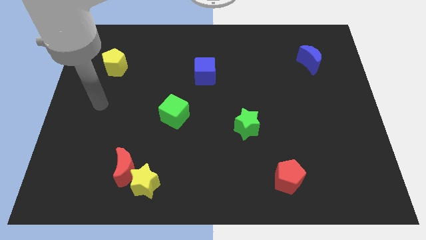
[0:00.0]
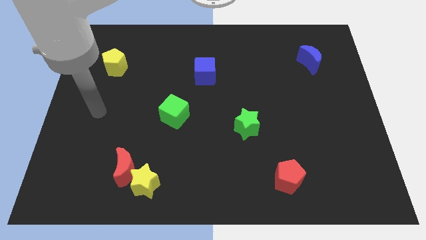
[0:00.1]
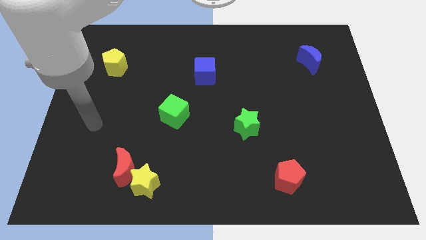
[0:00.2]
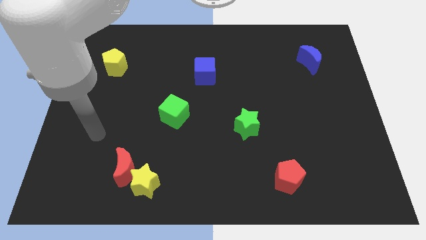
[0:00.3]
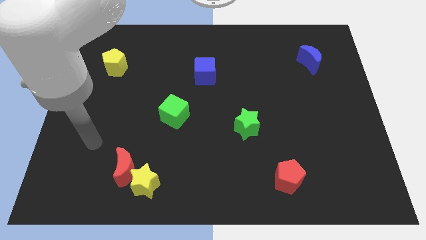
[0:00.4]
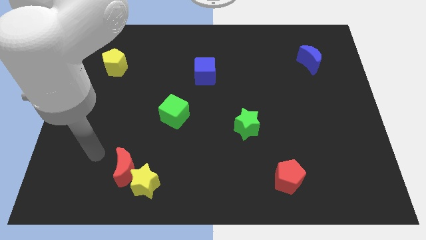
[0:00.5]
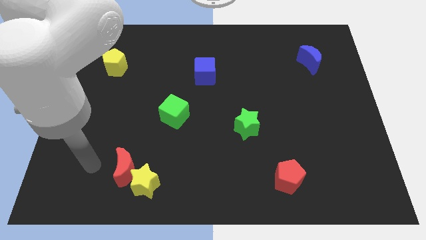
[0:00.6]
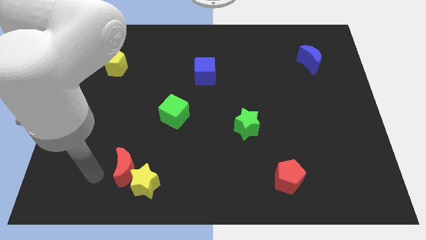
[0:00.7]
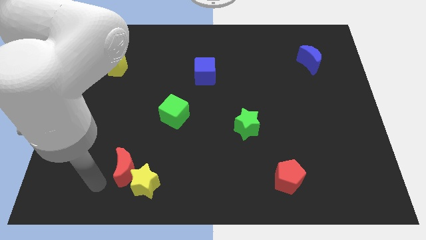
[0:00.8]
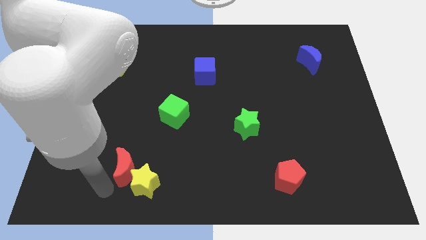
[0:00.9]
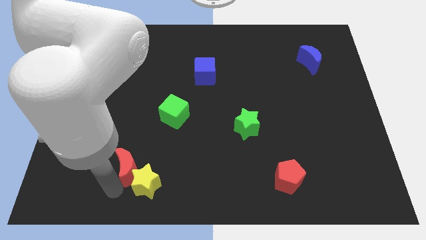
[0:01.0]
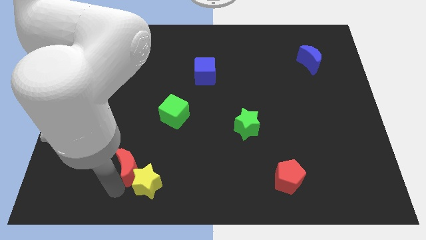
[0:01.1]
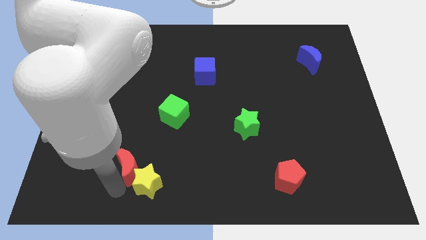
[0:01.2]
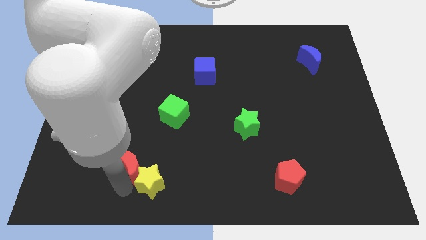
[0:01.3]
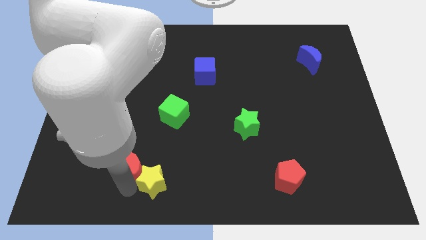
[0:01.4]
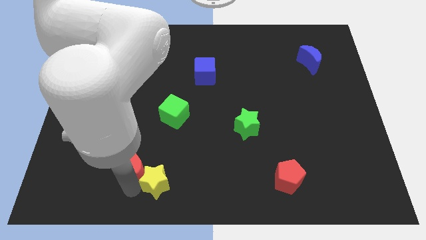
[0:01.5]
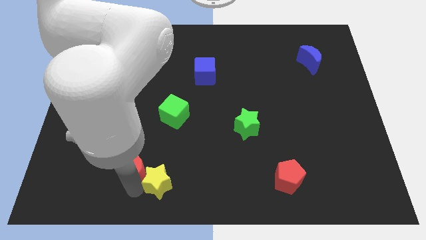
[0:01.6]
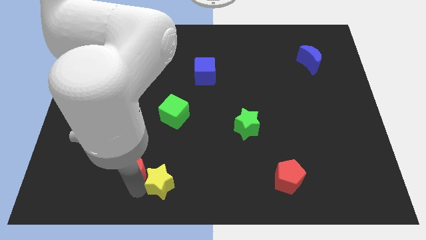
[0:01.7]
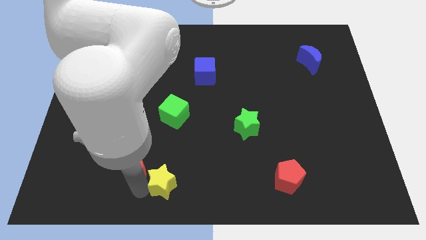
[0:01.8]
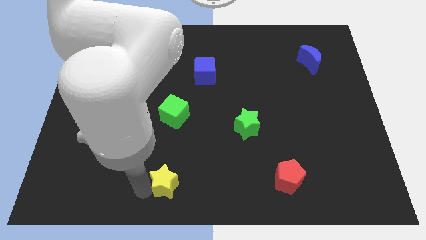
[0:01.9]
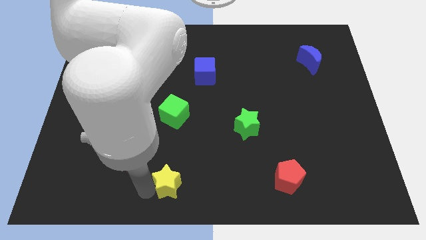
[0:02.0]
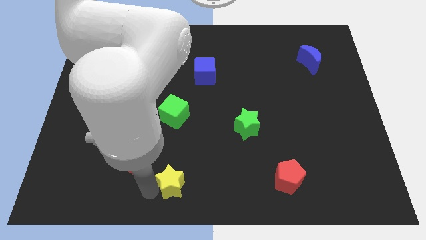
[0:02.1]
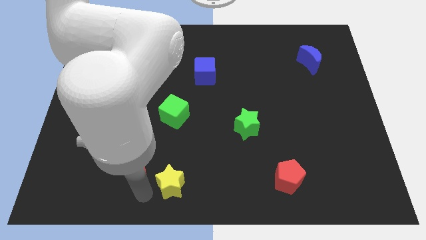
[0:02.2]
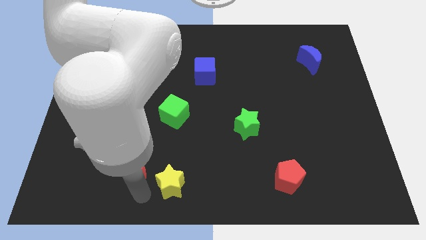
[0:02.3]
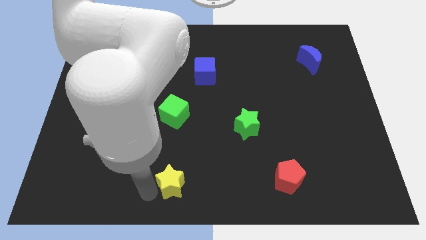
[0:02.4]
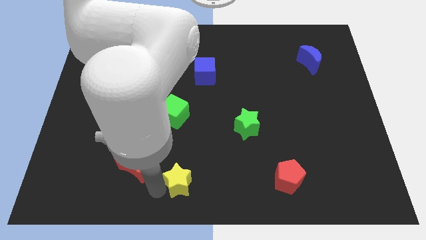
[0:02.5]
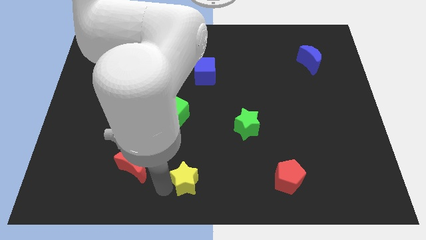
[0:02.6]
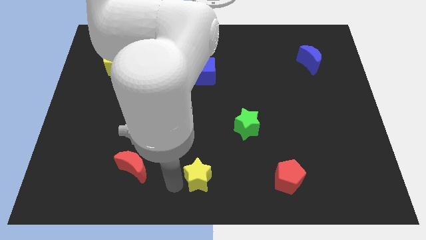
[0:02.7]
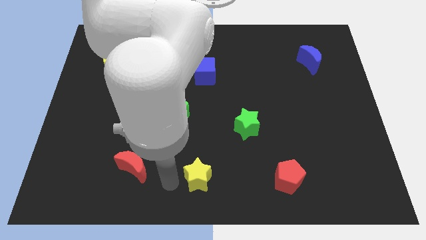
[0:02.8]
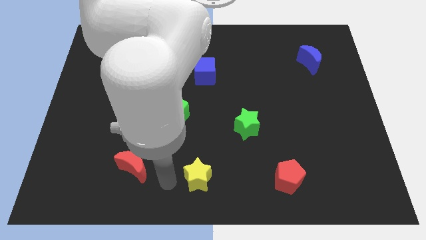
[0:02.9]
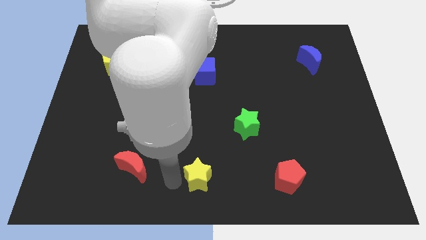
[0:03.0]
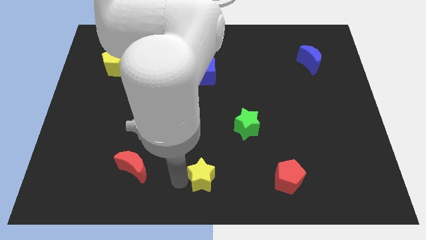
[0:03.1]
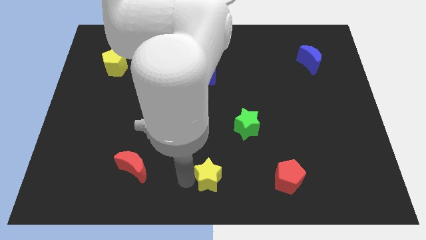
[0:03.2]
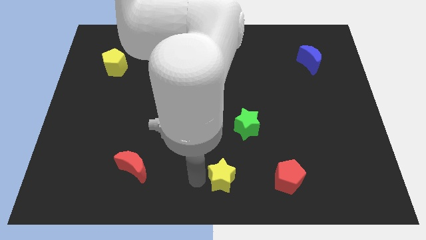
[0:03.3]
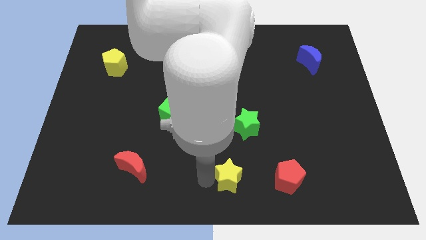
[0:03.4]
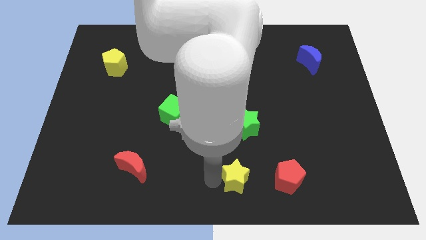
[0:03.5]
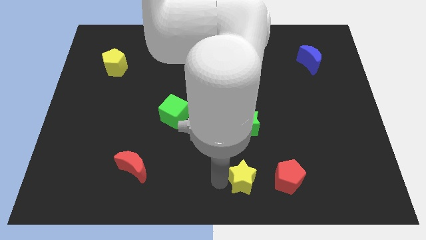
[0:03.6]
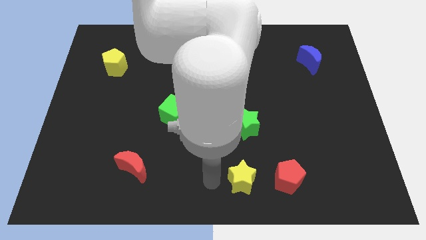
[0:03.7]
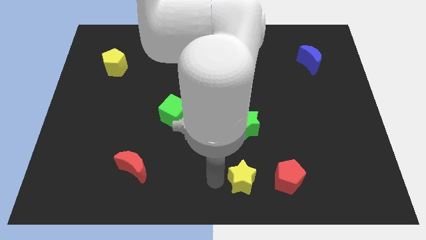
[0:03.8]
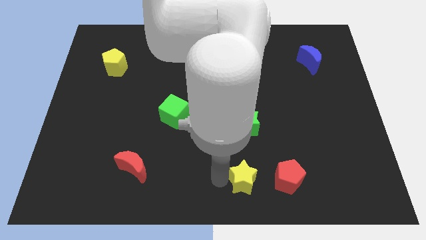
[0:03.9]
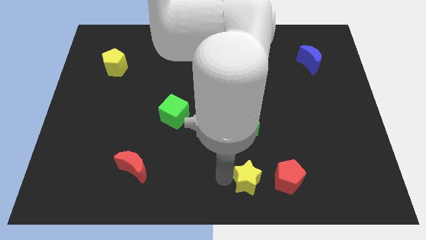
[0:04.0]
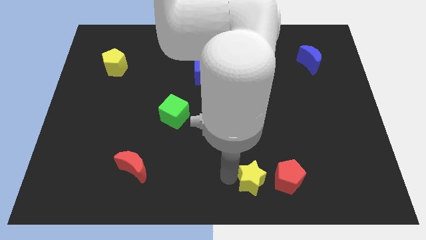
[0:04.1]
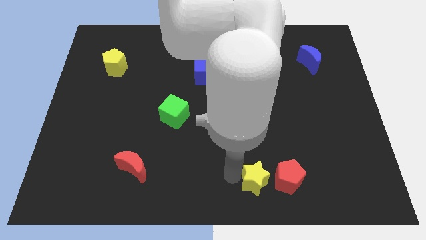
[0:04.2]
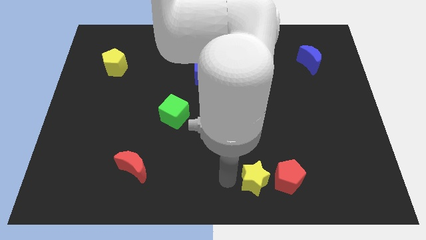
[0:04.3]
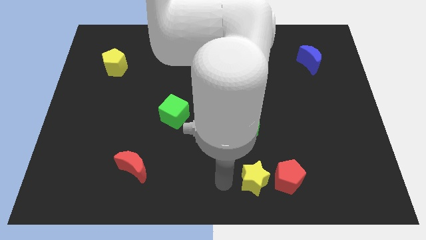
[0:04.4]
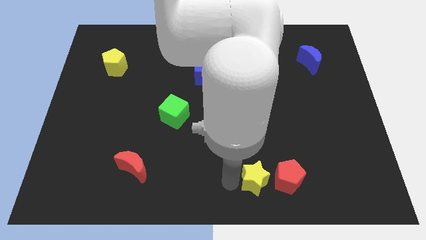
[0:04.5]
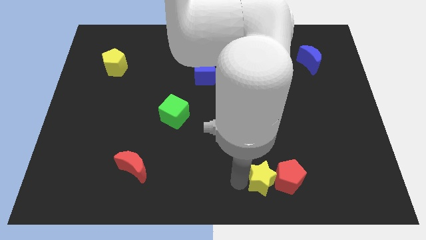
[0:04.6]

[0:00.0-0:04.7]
move the yellow star close to the red pentagon

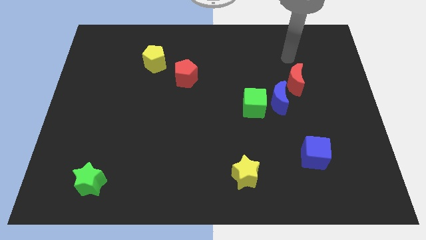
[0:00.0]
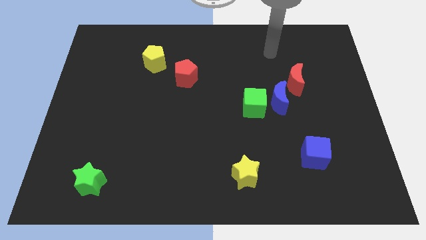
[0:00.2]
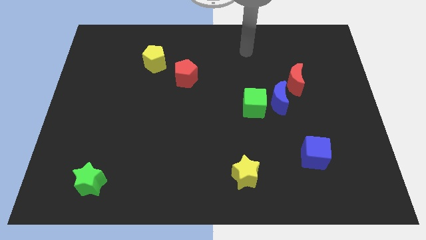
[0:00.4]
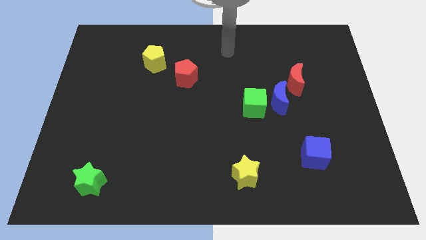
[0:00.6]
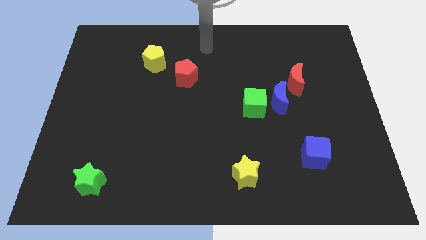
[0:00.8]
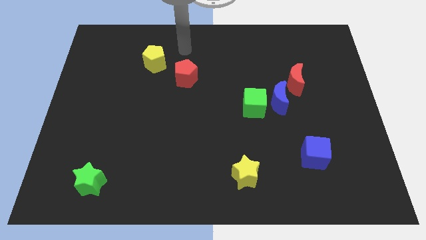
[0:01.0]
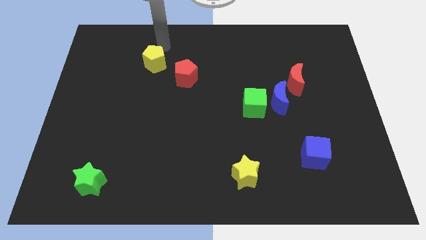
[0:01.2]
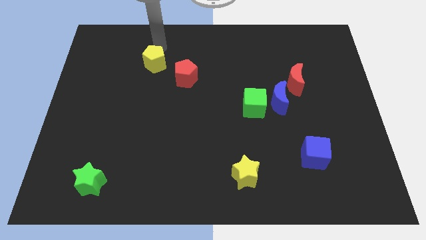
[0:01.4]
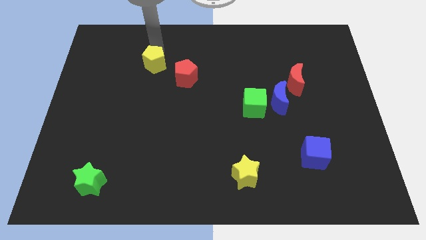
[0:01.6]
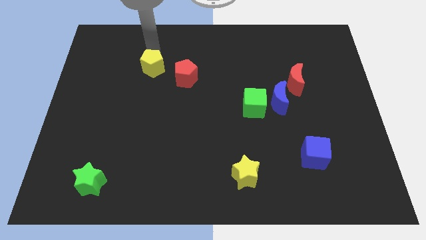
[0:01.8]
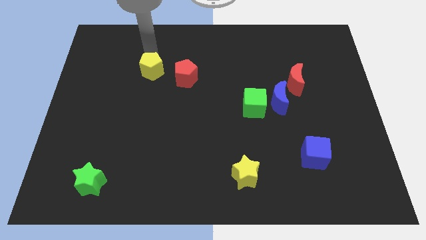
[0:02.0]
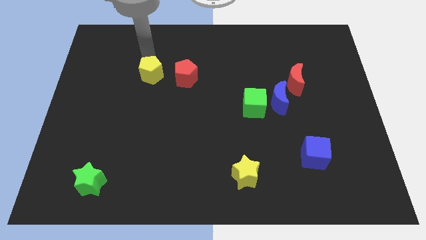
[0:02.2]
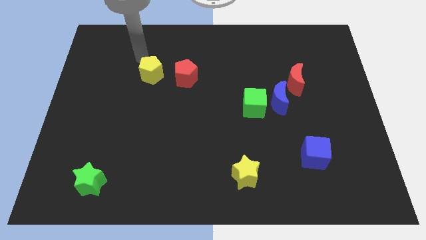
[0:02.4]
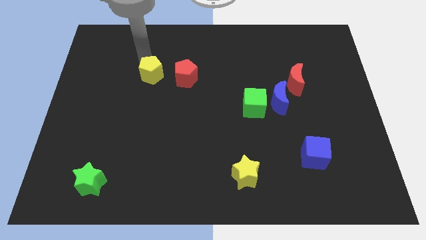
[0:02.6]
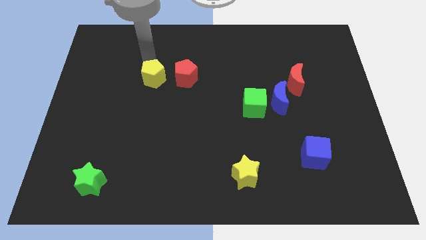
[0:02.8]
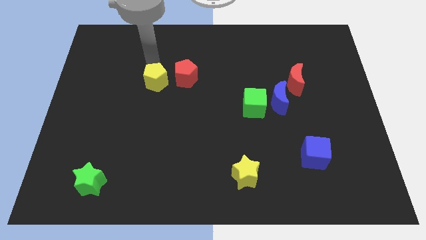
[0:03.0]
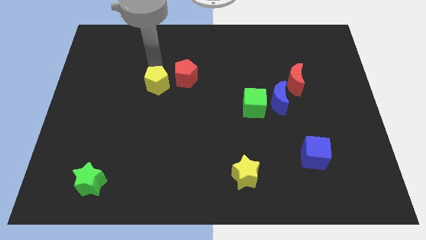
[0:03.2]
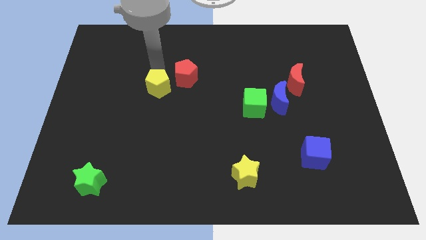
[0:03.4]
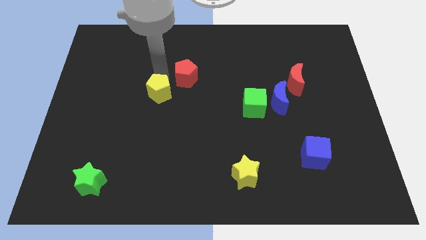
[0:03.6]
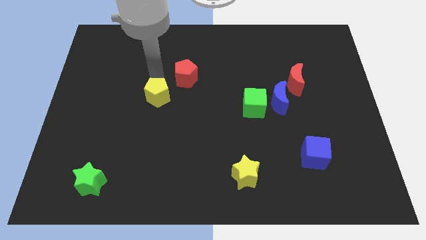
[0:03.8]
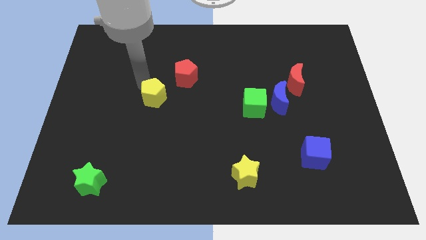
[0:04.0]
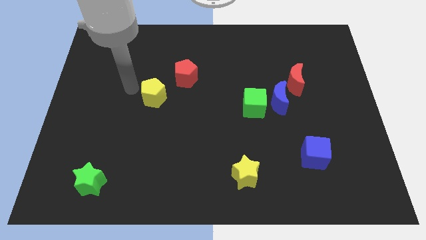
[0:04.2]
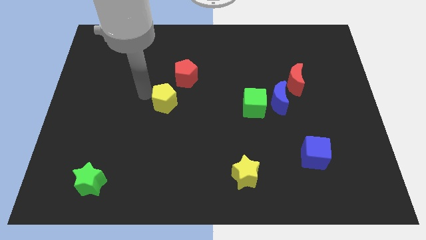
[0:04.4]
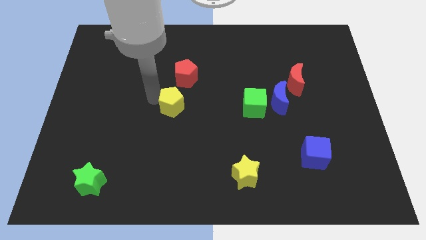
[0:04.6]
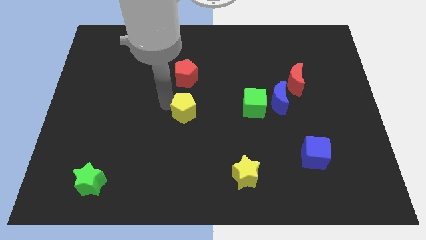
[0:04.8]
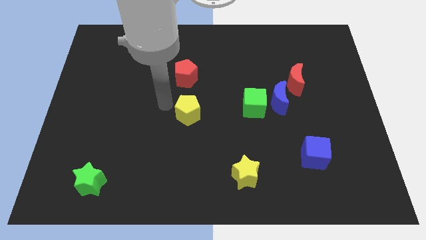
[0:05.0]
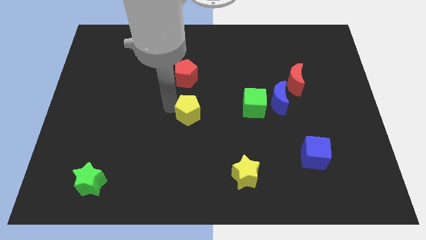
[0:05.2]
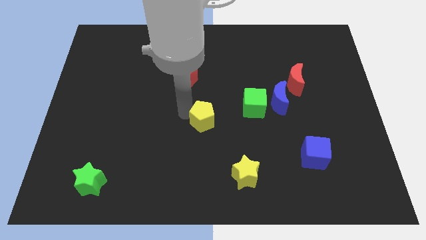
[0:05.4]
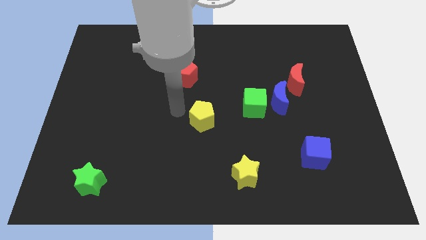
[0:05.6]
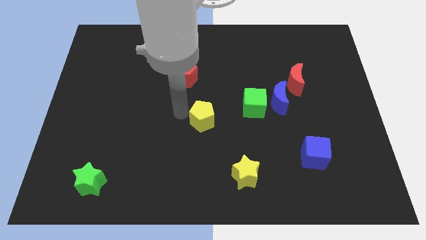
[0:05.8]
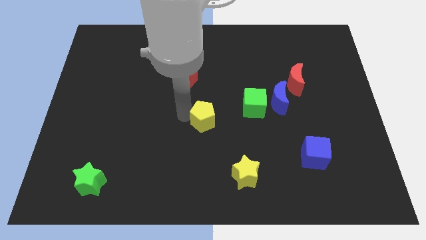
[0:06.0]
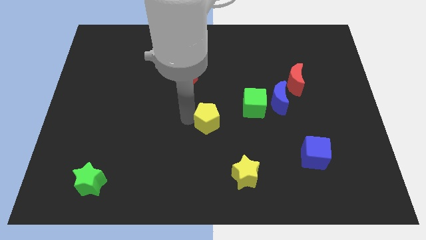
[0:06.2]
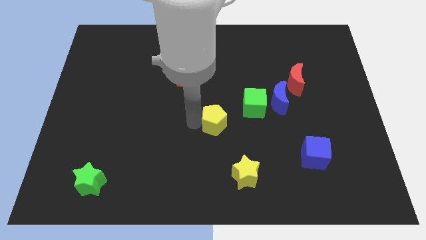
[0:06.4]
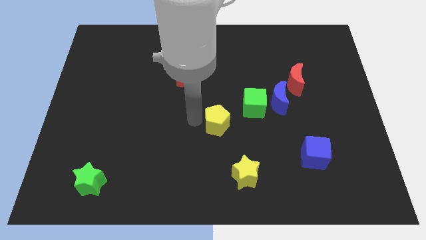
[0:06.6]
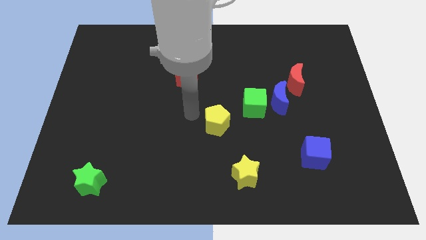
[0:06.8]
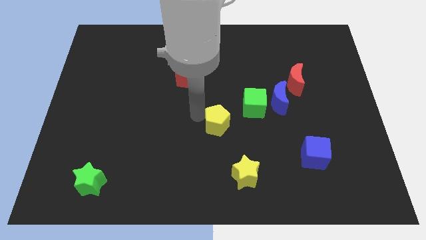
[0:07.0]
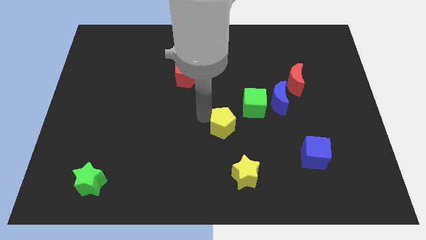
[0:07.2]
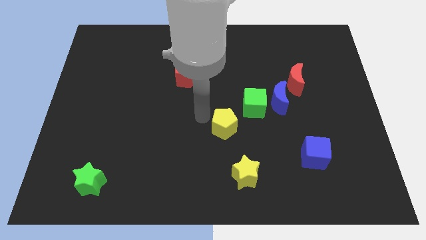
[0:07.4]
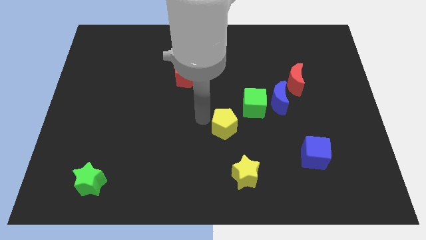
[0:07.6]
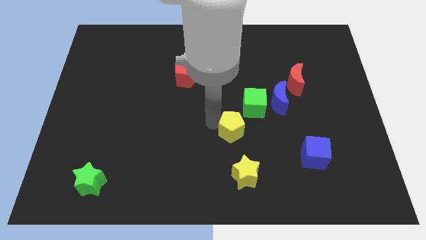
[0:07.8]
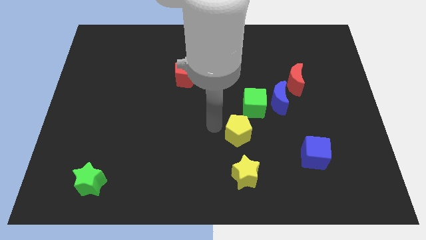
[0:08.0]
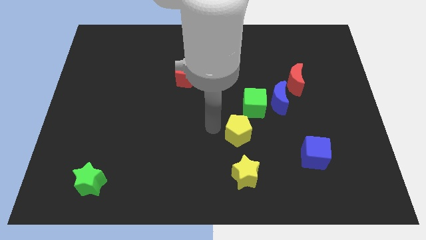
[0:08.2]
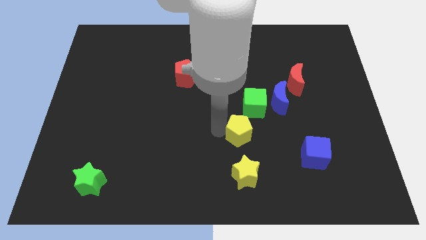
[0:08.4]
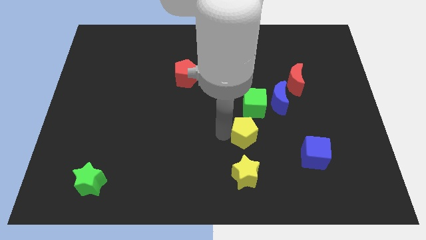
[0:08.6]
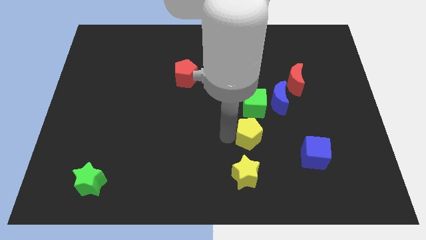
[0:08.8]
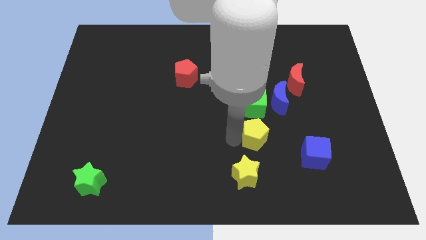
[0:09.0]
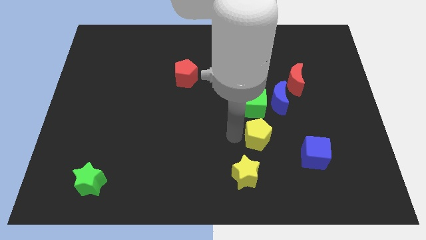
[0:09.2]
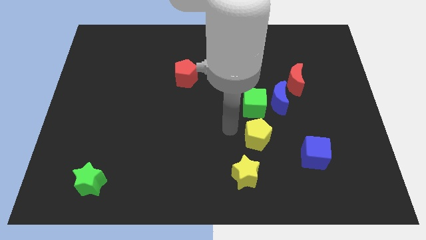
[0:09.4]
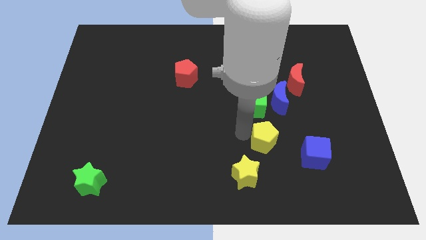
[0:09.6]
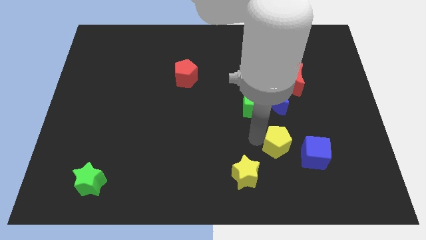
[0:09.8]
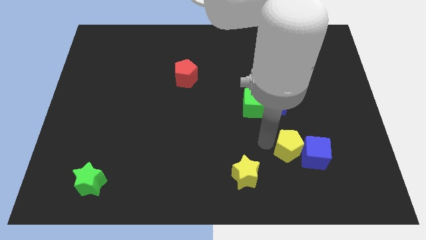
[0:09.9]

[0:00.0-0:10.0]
put the yellow pentagon towards the blue cube
